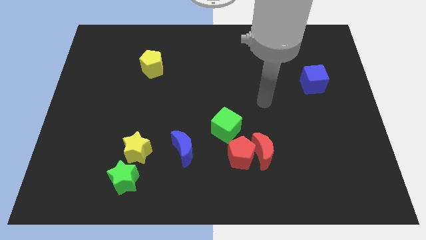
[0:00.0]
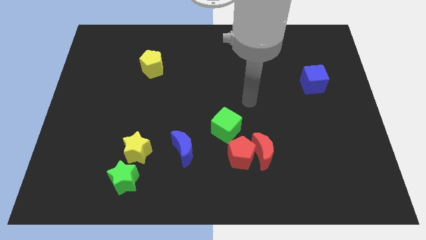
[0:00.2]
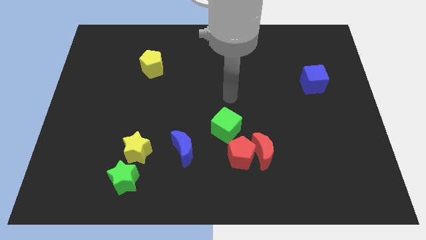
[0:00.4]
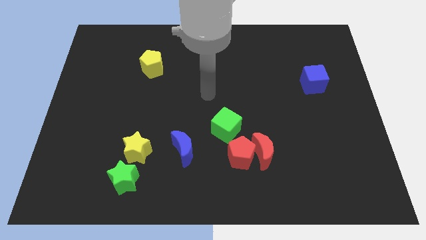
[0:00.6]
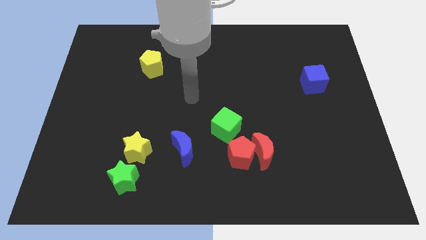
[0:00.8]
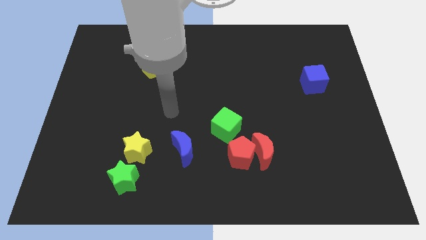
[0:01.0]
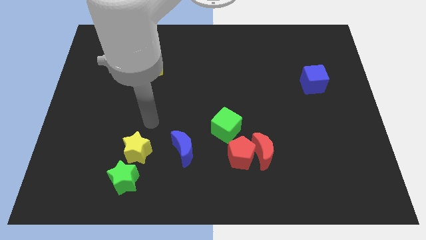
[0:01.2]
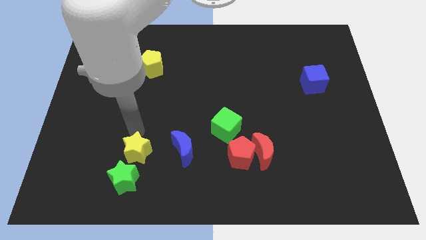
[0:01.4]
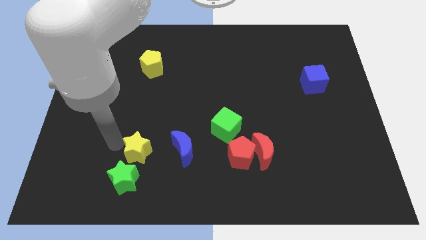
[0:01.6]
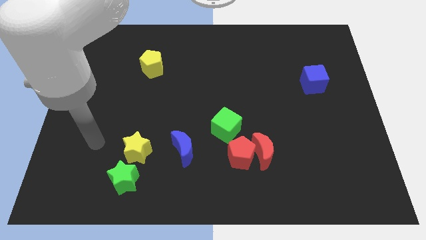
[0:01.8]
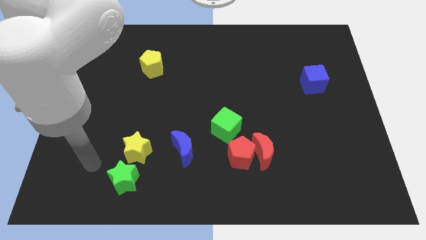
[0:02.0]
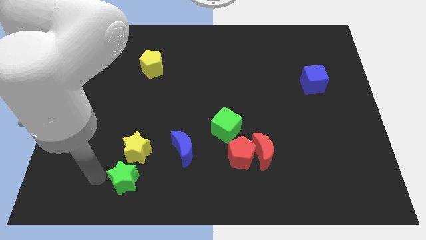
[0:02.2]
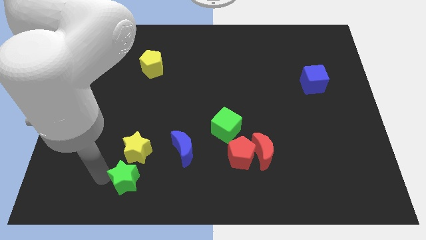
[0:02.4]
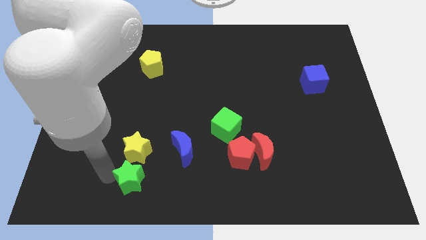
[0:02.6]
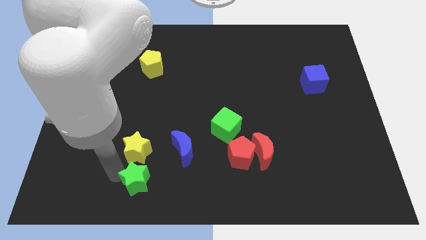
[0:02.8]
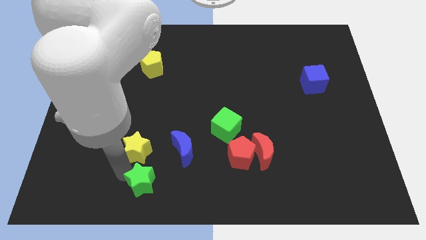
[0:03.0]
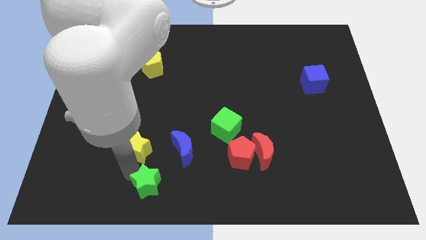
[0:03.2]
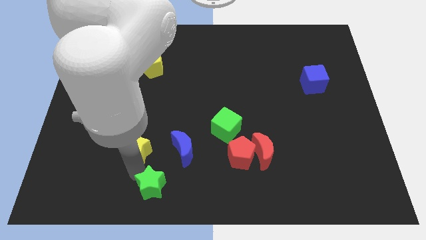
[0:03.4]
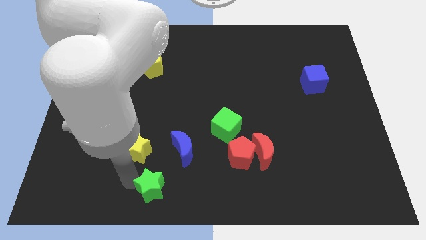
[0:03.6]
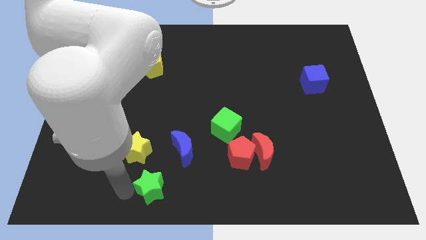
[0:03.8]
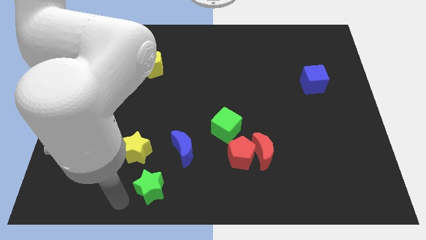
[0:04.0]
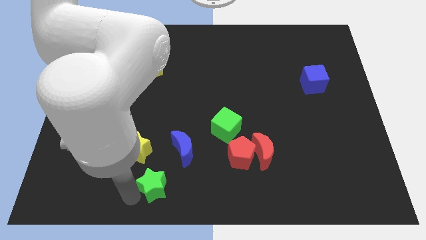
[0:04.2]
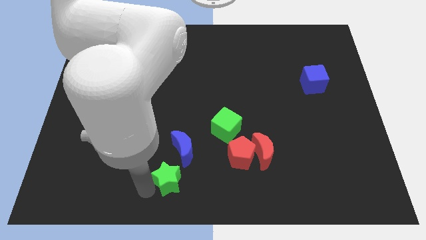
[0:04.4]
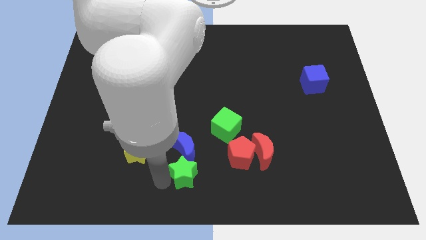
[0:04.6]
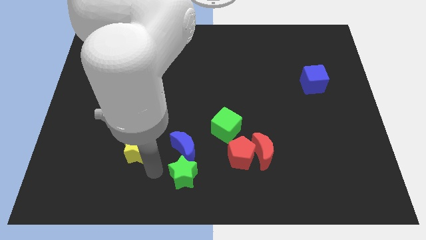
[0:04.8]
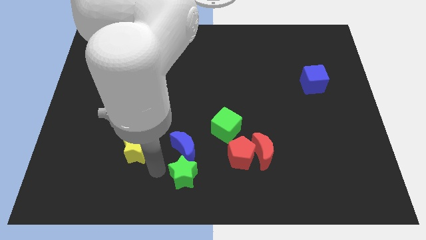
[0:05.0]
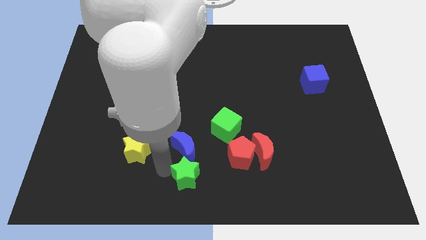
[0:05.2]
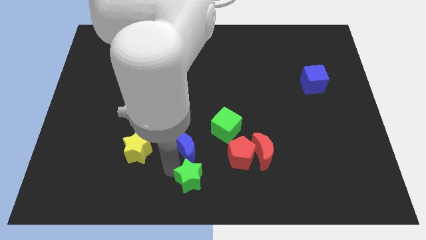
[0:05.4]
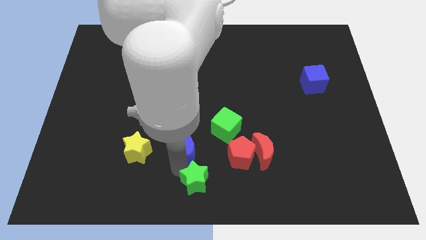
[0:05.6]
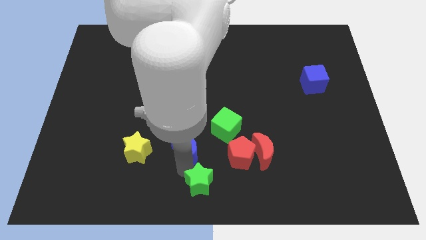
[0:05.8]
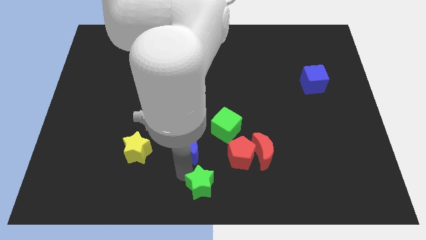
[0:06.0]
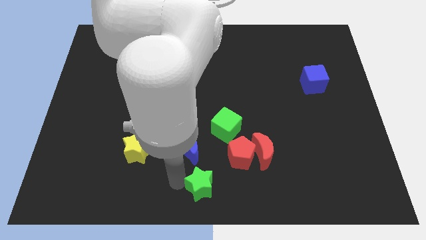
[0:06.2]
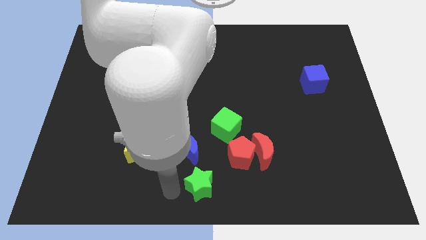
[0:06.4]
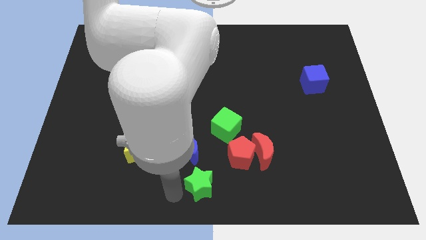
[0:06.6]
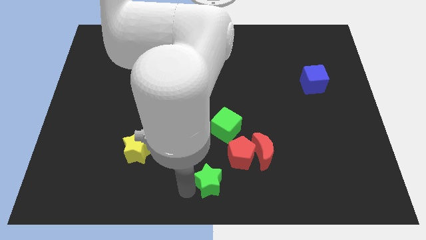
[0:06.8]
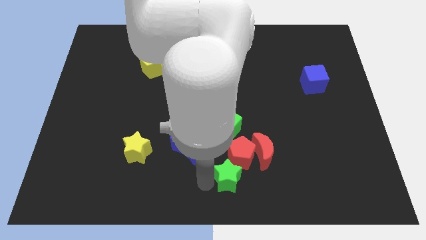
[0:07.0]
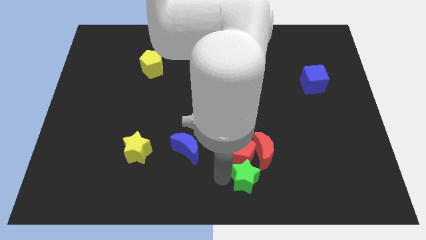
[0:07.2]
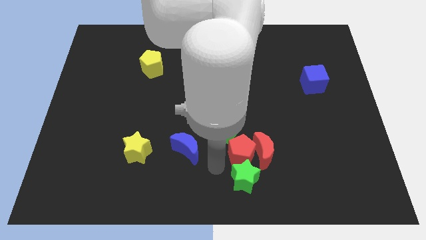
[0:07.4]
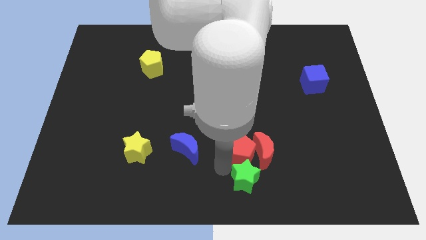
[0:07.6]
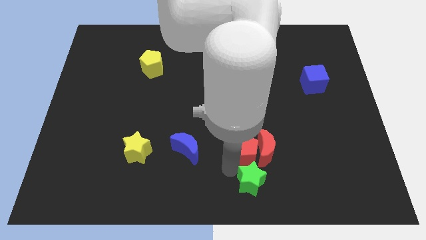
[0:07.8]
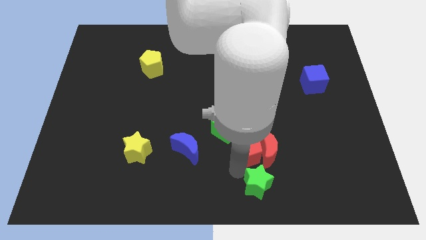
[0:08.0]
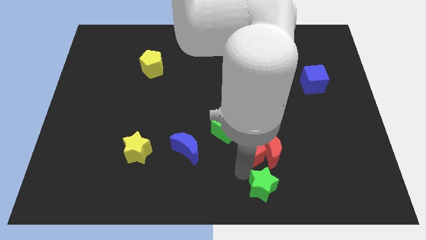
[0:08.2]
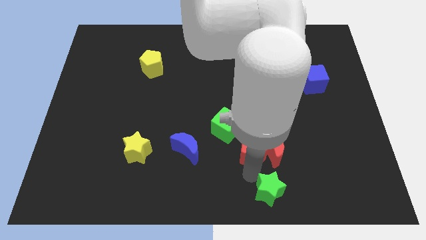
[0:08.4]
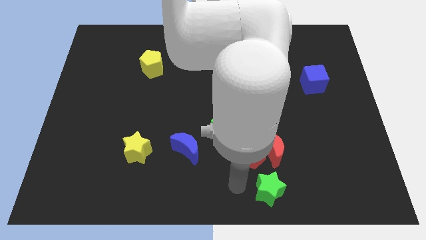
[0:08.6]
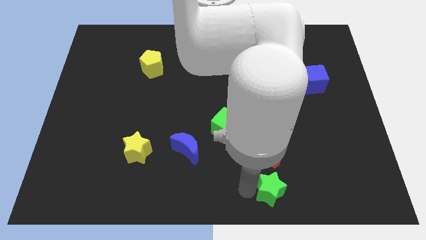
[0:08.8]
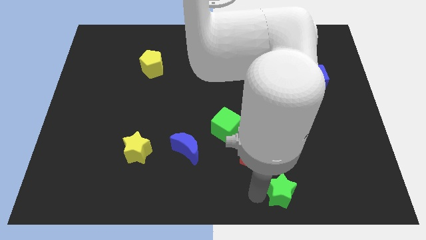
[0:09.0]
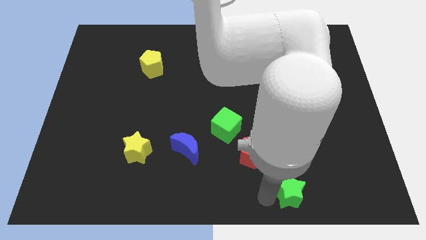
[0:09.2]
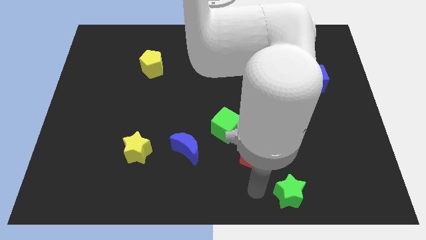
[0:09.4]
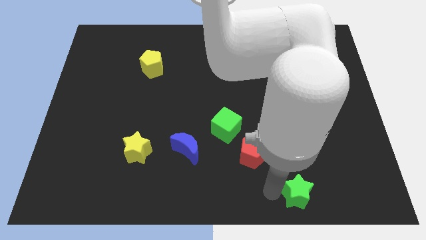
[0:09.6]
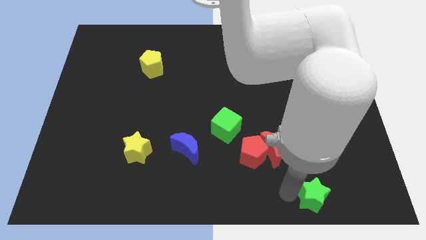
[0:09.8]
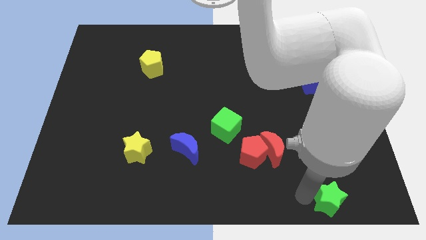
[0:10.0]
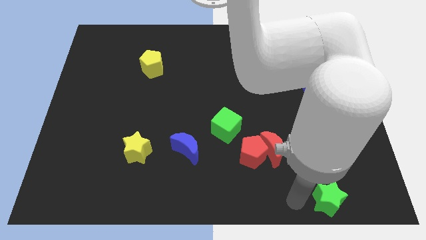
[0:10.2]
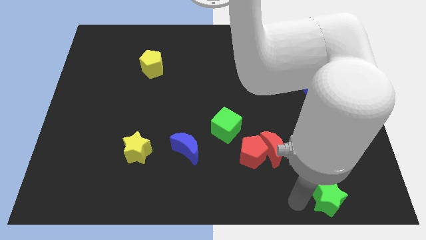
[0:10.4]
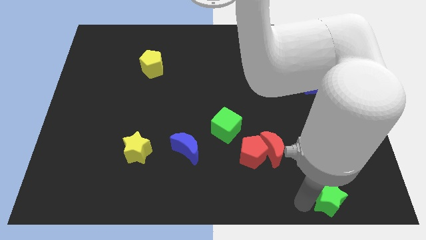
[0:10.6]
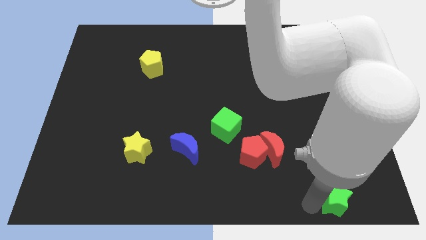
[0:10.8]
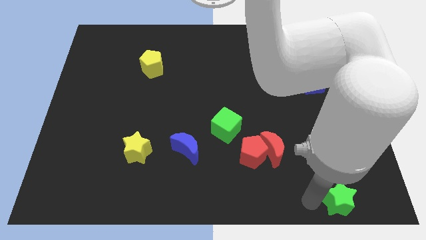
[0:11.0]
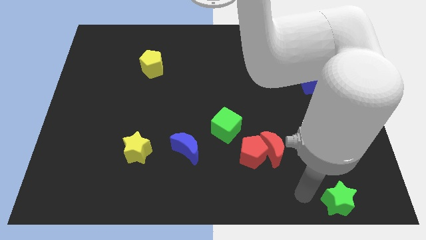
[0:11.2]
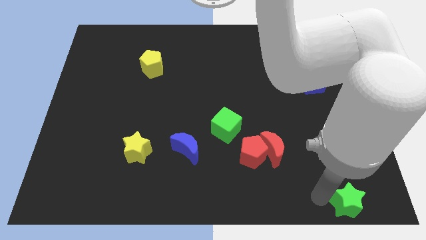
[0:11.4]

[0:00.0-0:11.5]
slide the green star to the bottom right corner

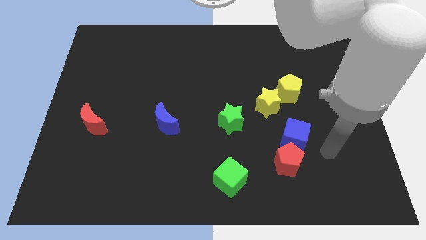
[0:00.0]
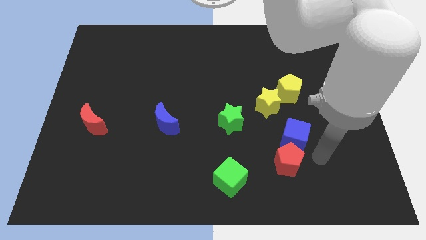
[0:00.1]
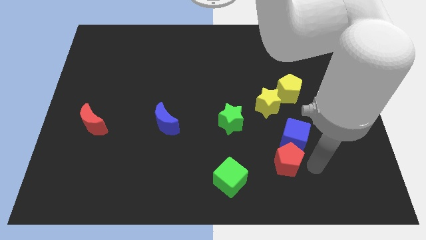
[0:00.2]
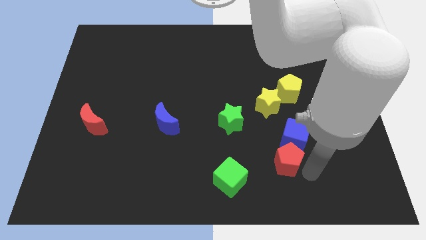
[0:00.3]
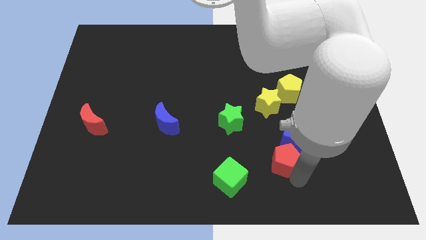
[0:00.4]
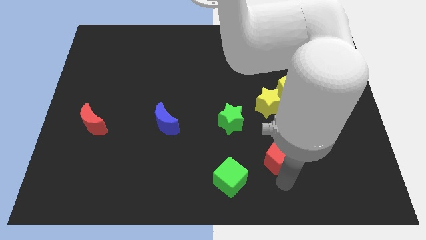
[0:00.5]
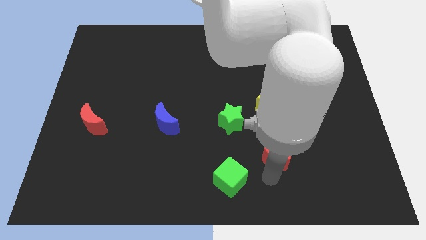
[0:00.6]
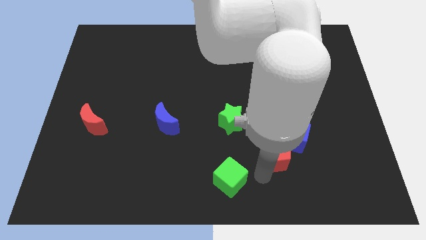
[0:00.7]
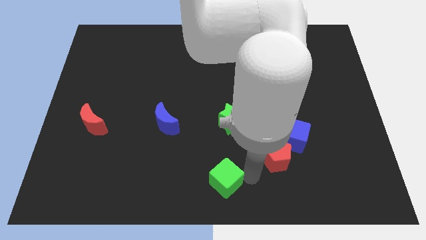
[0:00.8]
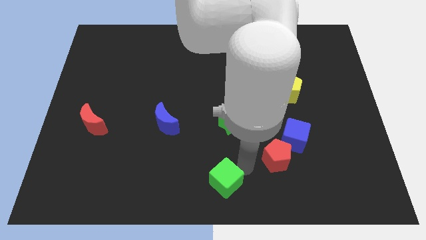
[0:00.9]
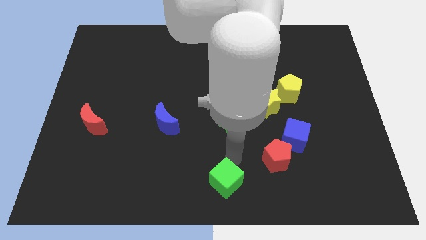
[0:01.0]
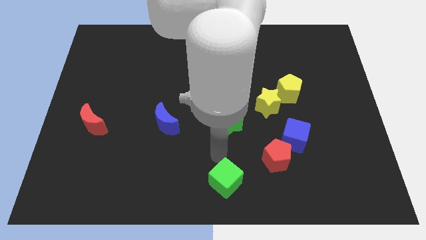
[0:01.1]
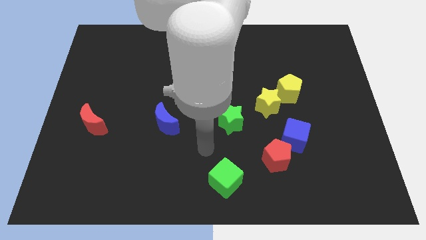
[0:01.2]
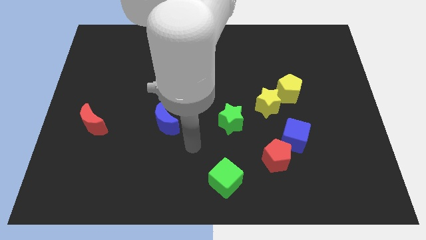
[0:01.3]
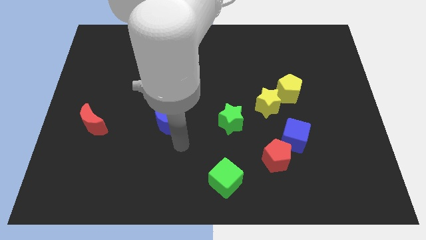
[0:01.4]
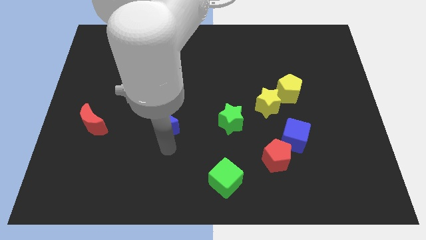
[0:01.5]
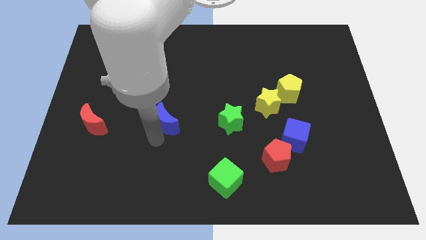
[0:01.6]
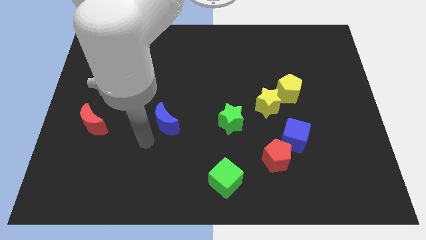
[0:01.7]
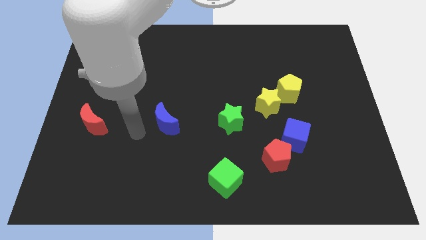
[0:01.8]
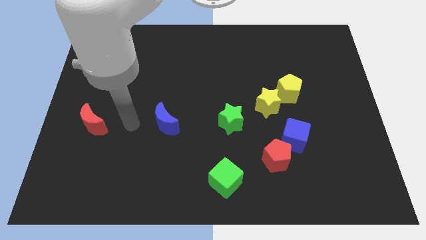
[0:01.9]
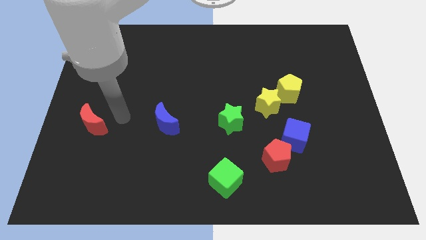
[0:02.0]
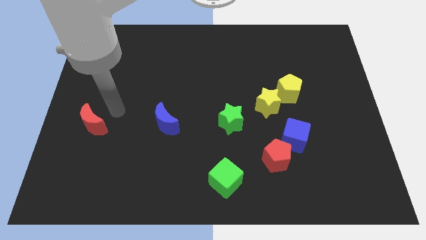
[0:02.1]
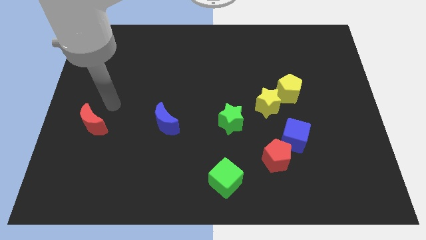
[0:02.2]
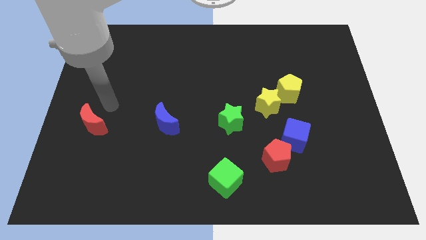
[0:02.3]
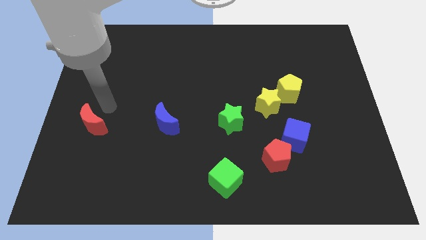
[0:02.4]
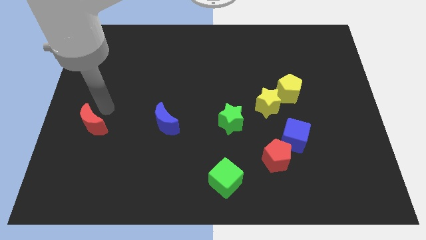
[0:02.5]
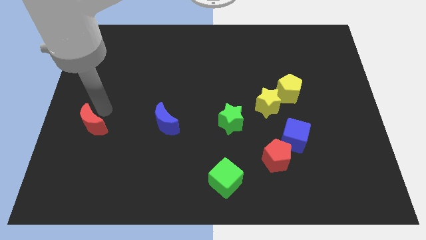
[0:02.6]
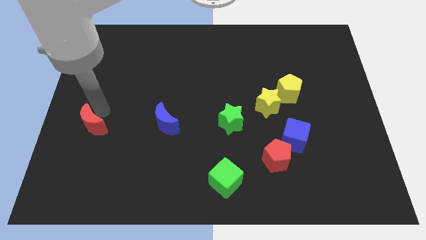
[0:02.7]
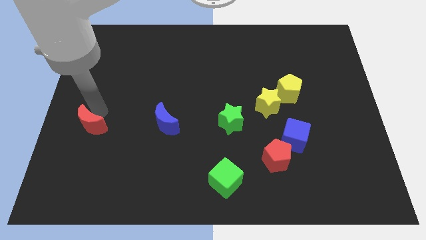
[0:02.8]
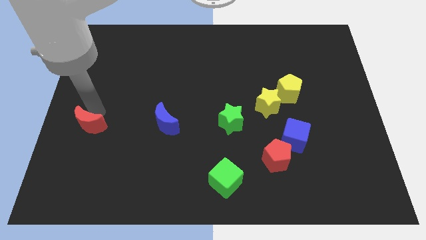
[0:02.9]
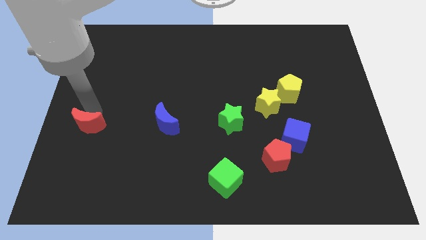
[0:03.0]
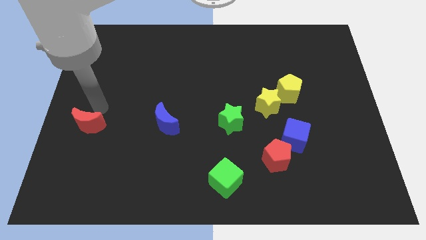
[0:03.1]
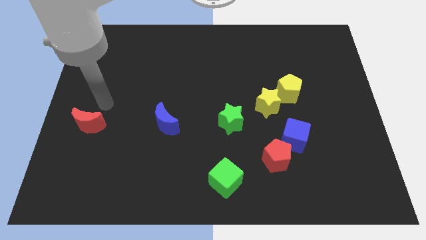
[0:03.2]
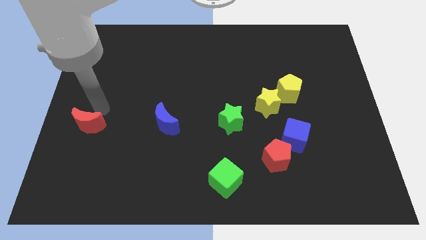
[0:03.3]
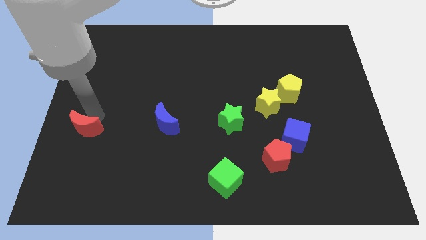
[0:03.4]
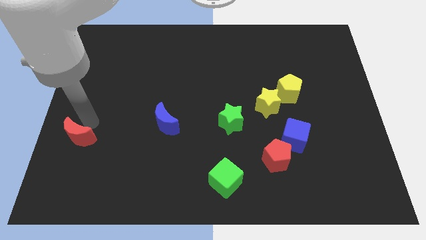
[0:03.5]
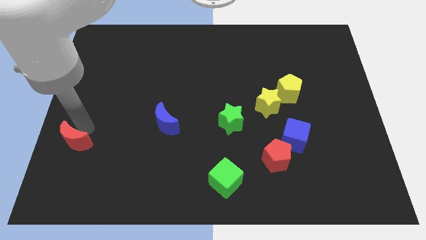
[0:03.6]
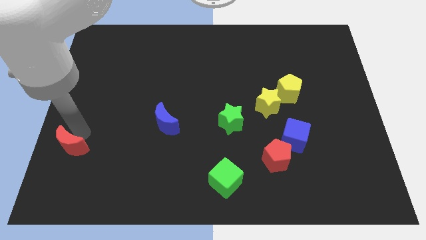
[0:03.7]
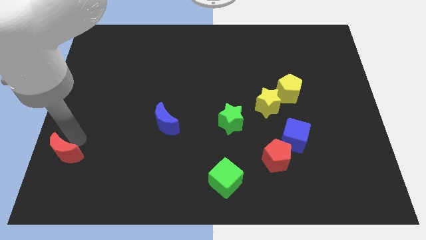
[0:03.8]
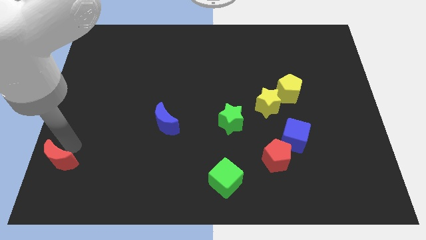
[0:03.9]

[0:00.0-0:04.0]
move the red moon to the lower left corner
